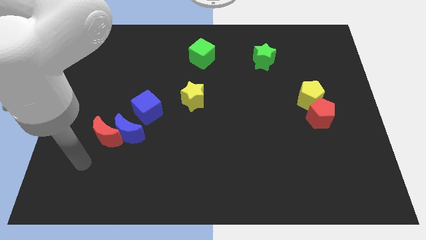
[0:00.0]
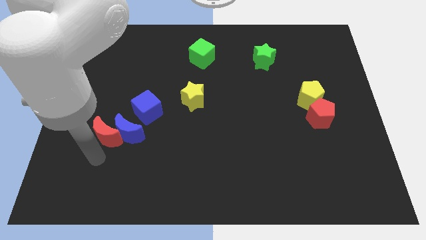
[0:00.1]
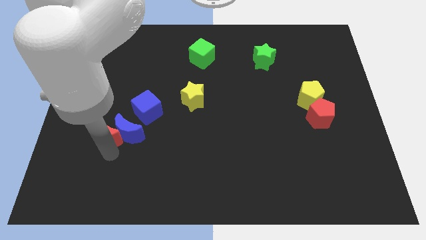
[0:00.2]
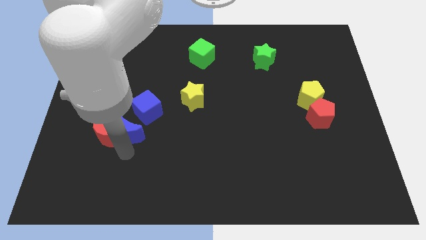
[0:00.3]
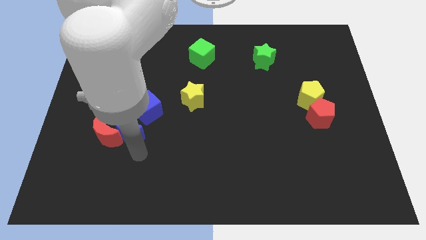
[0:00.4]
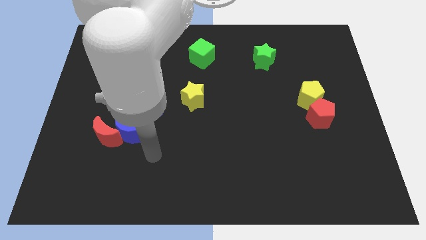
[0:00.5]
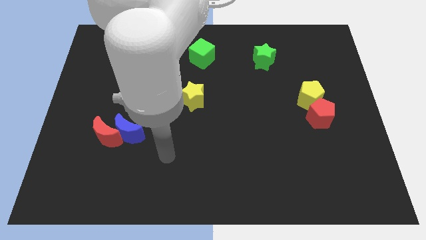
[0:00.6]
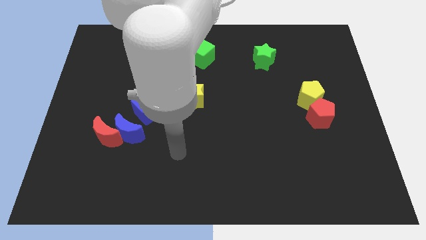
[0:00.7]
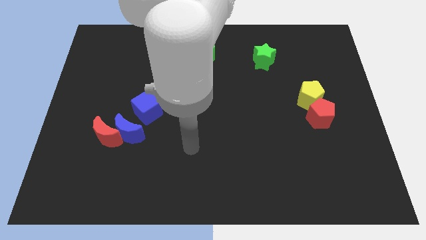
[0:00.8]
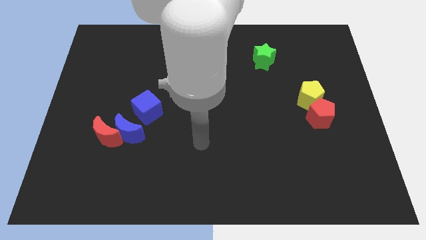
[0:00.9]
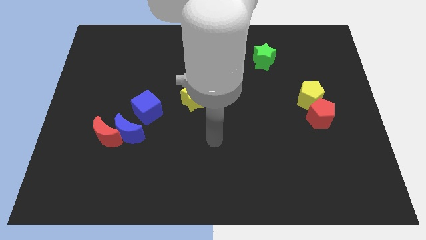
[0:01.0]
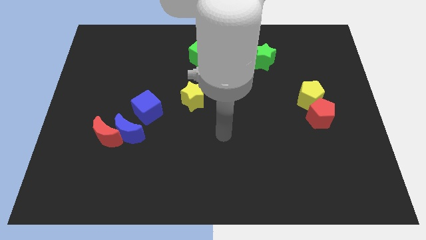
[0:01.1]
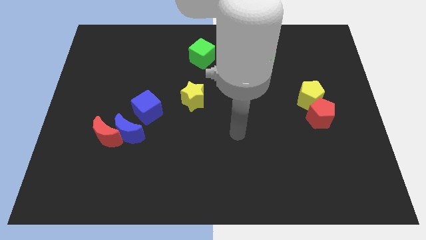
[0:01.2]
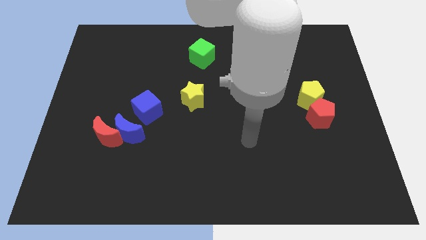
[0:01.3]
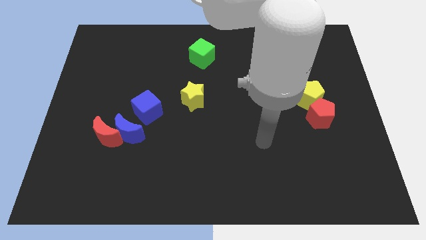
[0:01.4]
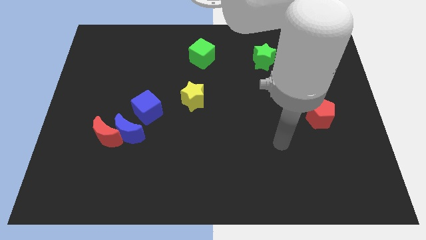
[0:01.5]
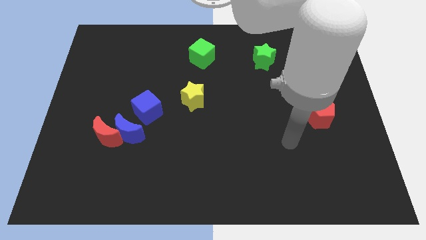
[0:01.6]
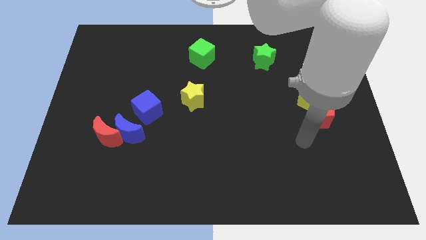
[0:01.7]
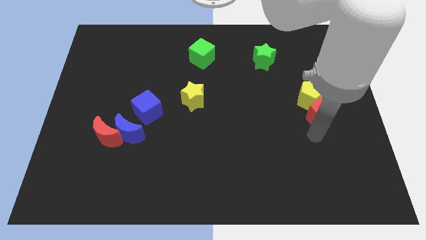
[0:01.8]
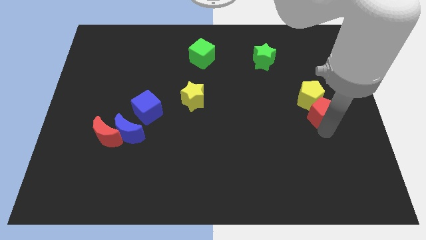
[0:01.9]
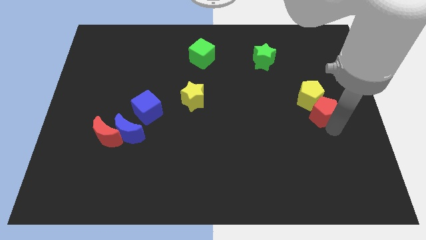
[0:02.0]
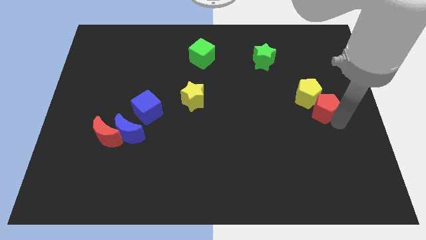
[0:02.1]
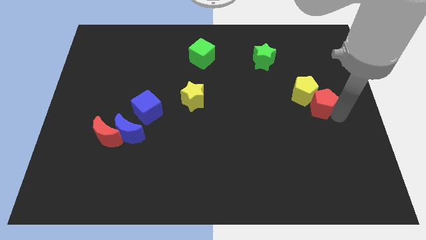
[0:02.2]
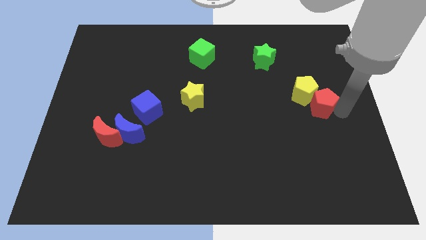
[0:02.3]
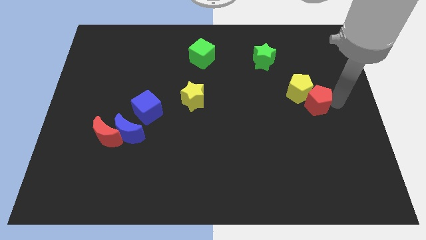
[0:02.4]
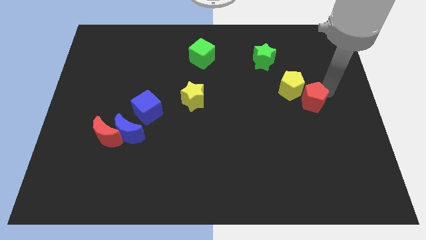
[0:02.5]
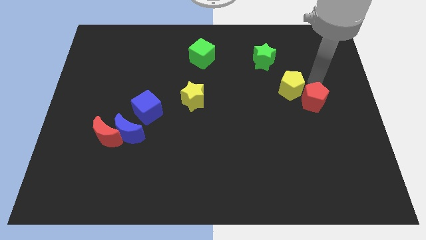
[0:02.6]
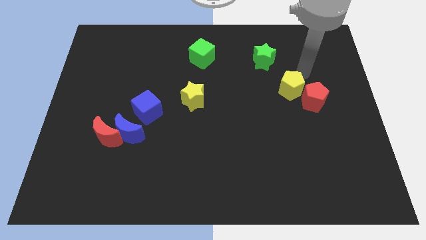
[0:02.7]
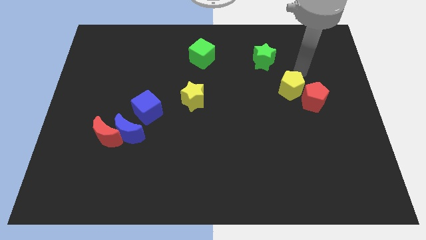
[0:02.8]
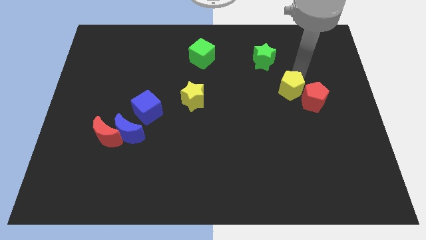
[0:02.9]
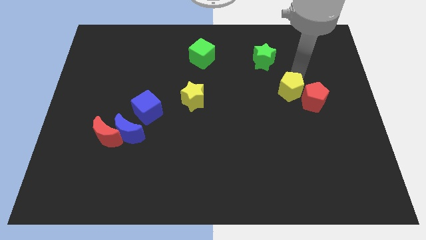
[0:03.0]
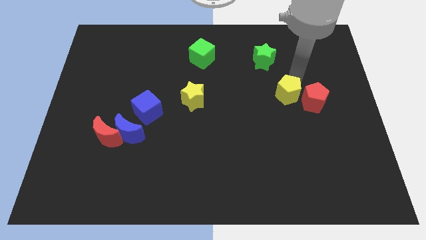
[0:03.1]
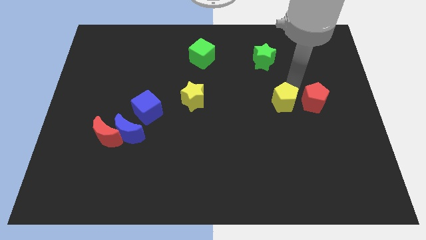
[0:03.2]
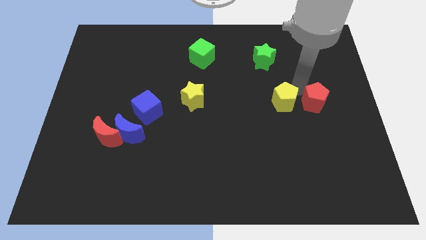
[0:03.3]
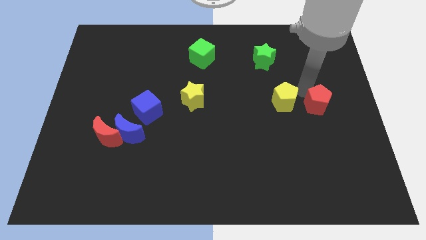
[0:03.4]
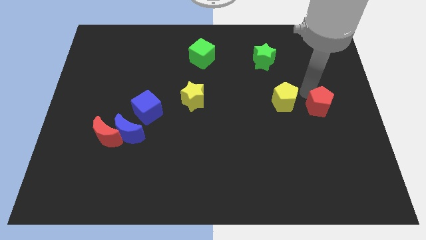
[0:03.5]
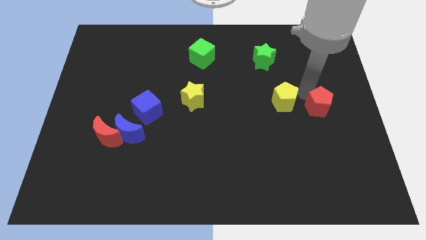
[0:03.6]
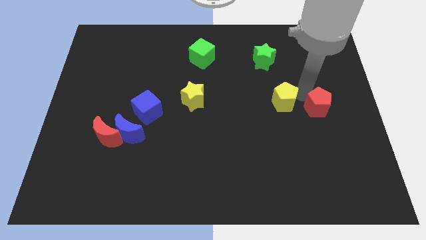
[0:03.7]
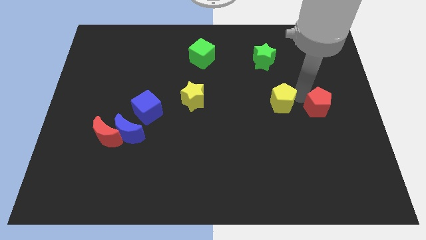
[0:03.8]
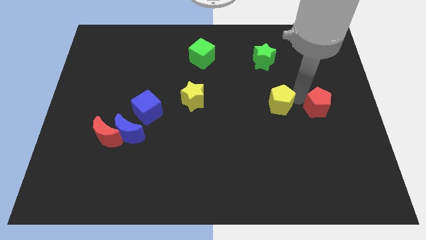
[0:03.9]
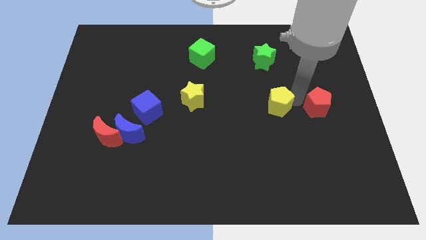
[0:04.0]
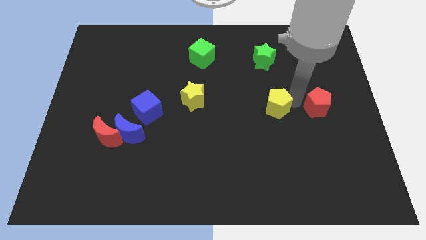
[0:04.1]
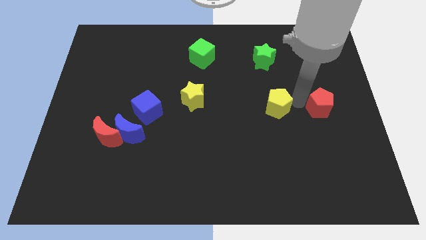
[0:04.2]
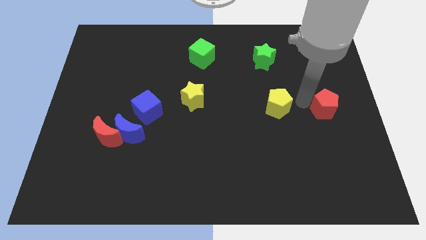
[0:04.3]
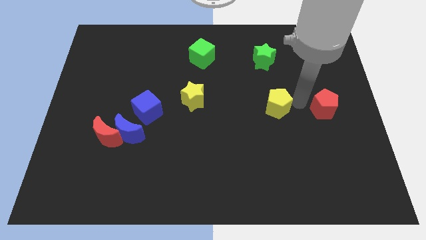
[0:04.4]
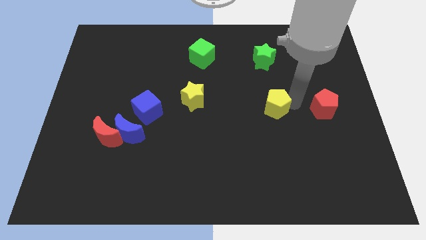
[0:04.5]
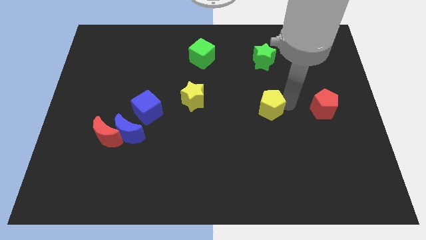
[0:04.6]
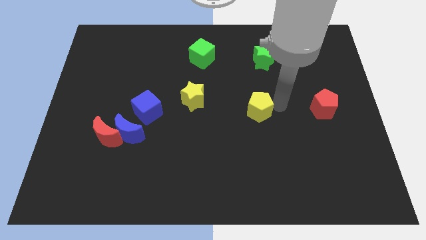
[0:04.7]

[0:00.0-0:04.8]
move the yellow pentagon to the middle of the board

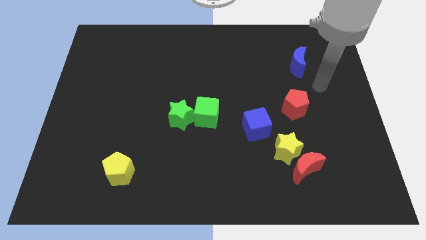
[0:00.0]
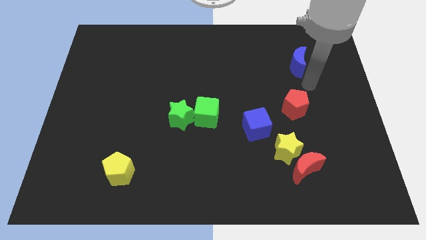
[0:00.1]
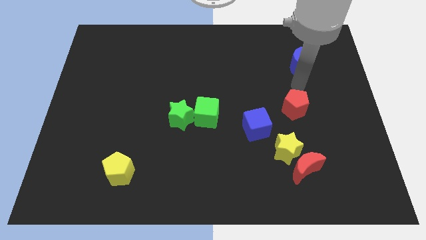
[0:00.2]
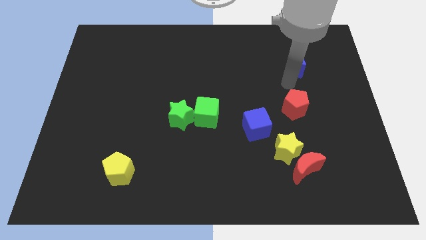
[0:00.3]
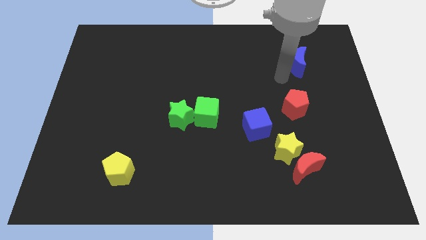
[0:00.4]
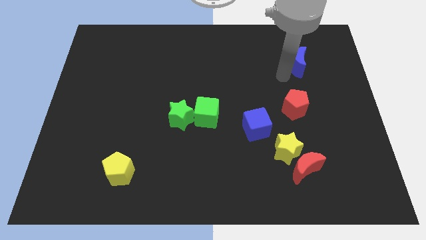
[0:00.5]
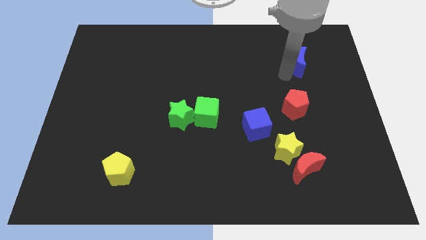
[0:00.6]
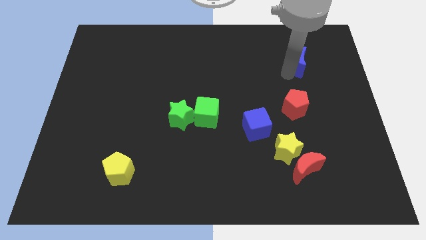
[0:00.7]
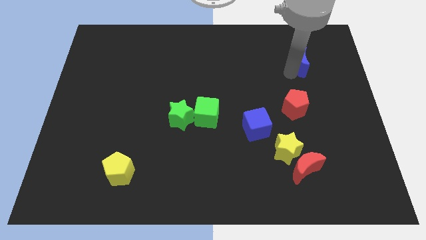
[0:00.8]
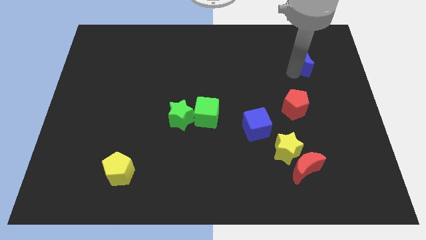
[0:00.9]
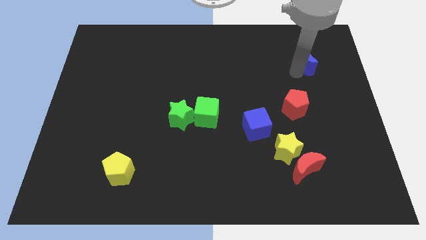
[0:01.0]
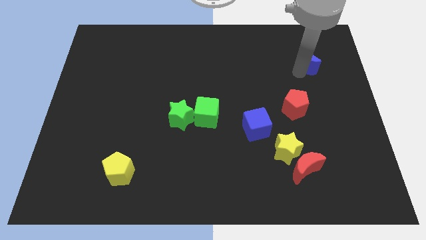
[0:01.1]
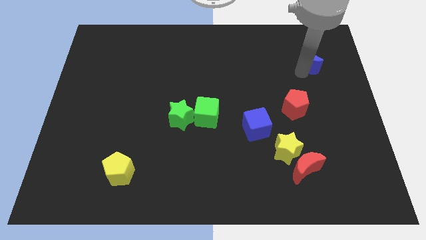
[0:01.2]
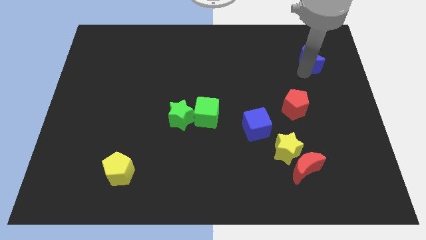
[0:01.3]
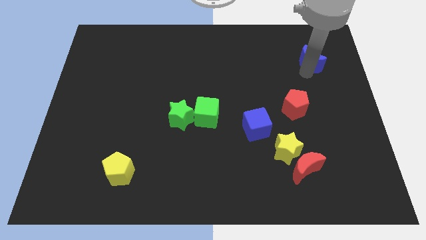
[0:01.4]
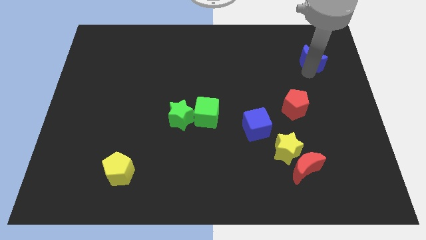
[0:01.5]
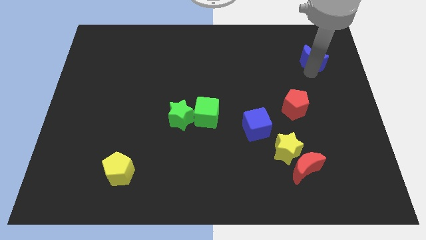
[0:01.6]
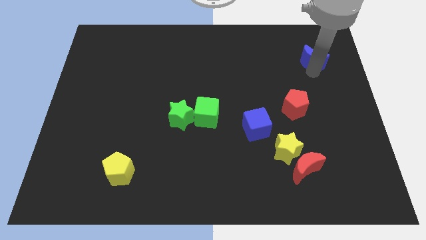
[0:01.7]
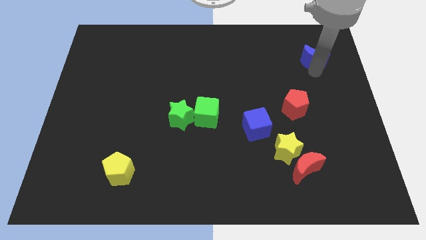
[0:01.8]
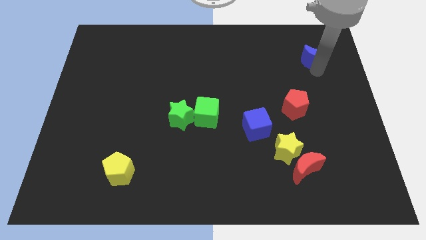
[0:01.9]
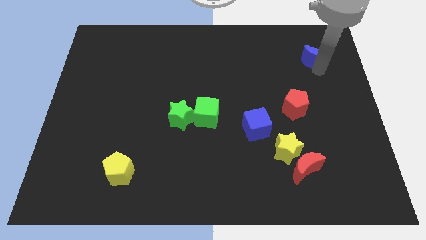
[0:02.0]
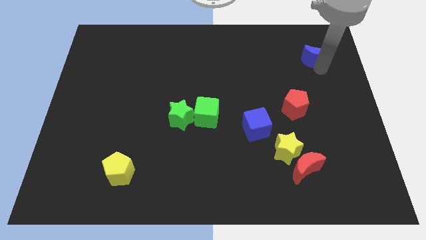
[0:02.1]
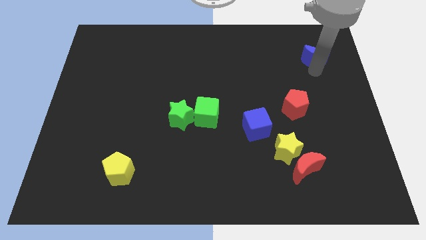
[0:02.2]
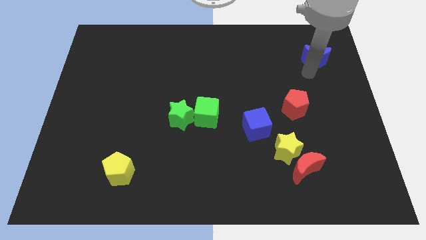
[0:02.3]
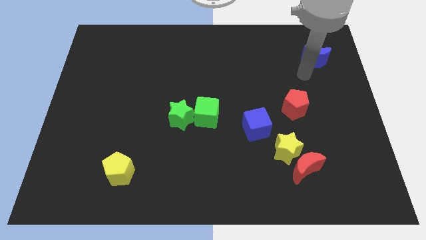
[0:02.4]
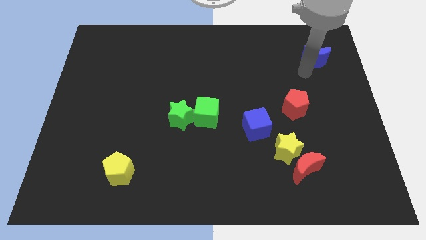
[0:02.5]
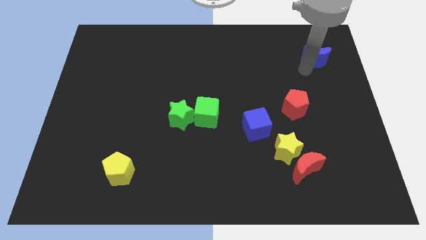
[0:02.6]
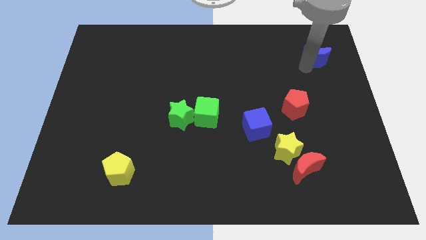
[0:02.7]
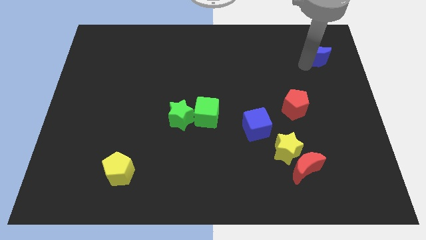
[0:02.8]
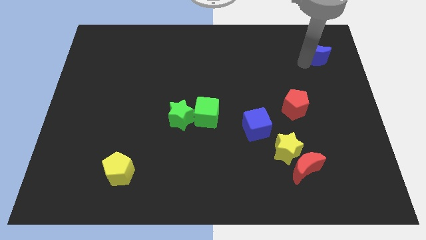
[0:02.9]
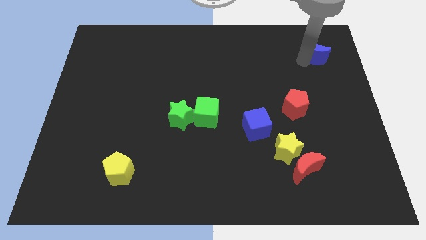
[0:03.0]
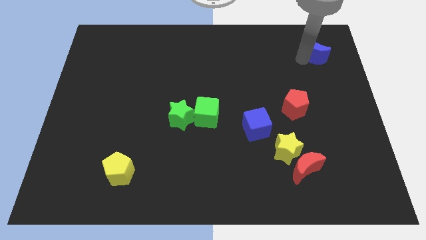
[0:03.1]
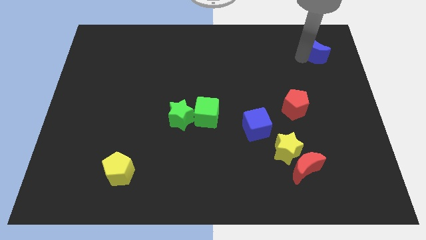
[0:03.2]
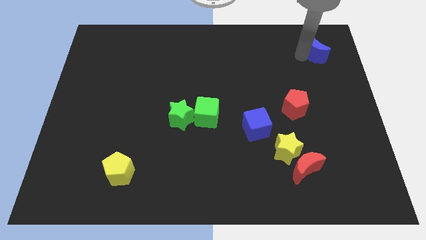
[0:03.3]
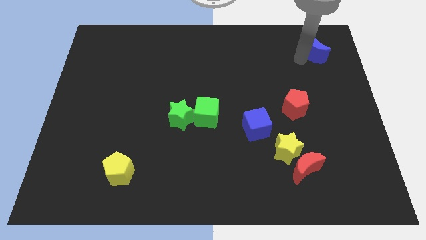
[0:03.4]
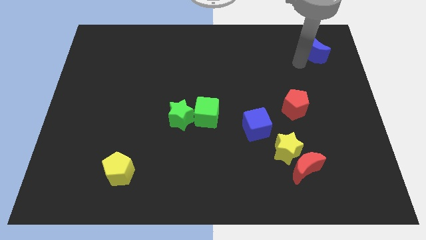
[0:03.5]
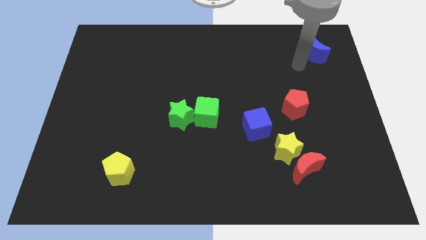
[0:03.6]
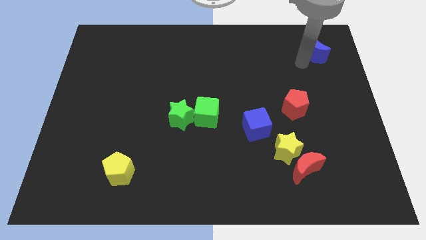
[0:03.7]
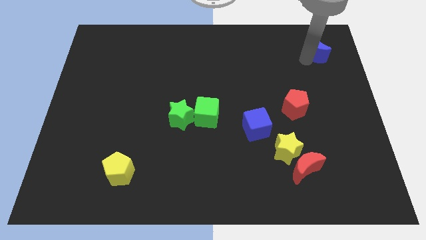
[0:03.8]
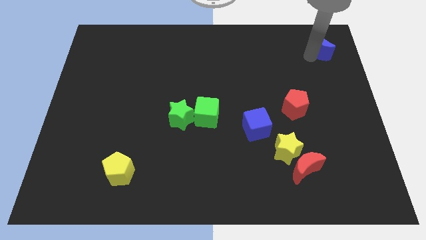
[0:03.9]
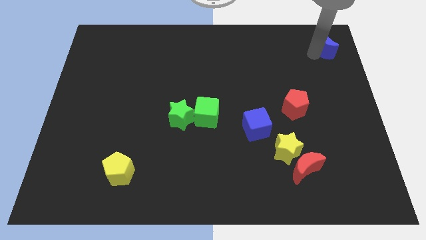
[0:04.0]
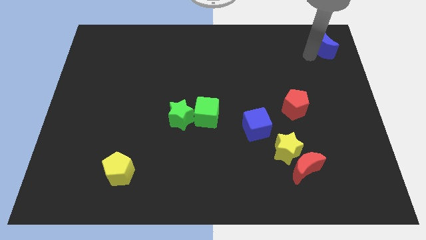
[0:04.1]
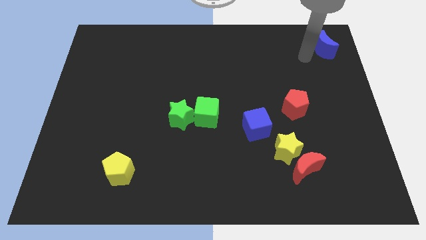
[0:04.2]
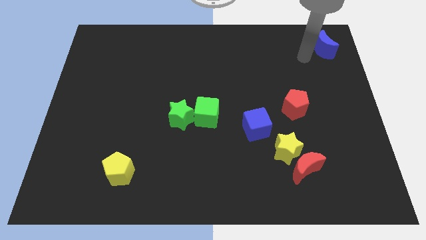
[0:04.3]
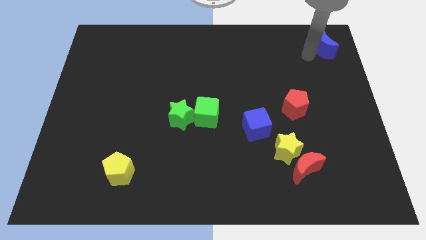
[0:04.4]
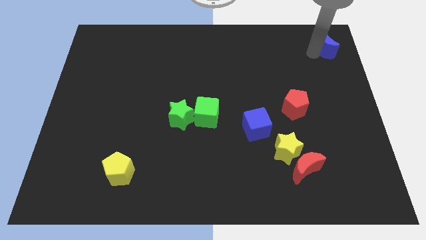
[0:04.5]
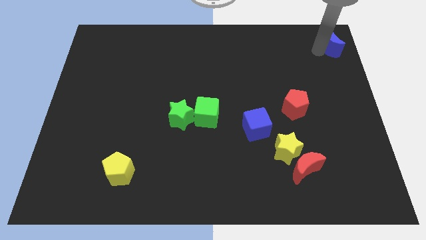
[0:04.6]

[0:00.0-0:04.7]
push the blue moon to the top right corner
